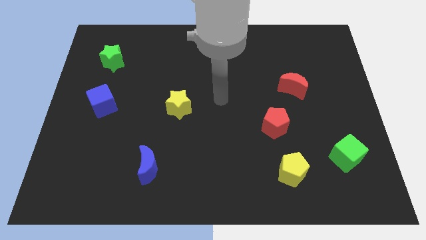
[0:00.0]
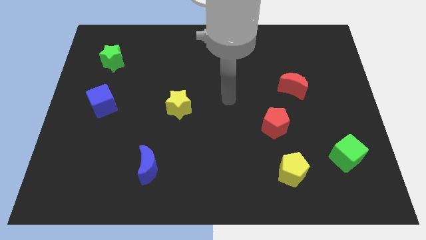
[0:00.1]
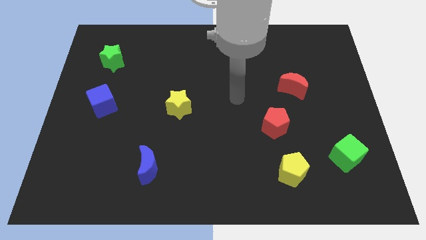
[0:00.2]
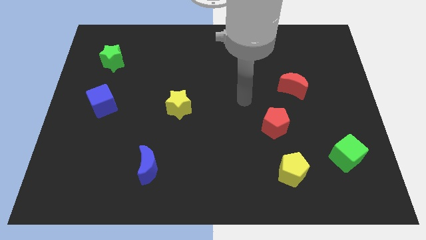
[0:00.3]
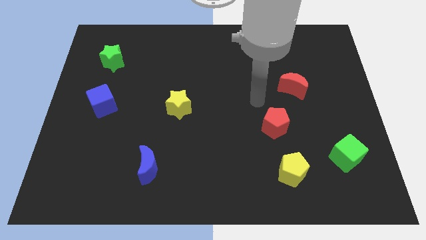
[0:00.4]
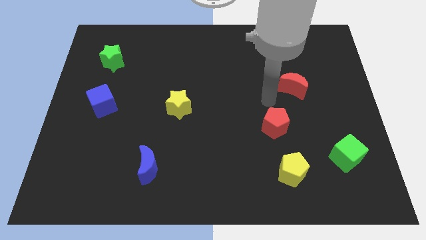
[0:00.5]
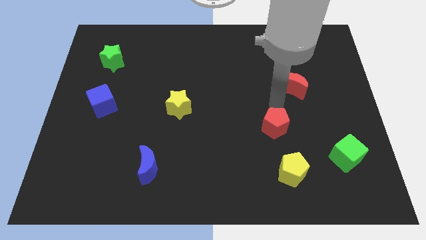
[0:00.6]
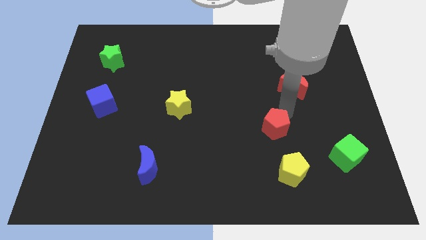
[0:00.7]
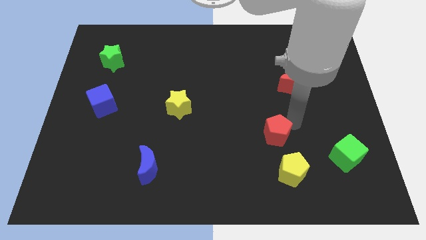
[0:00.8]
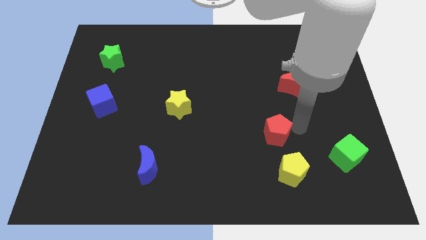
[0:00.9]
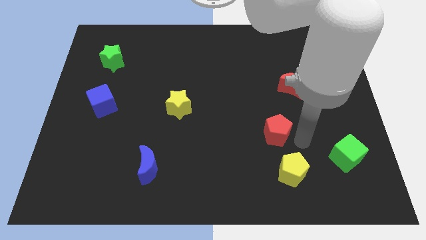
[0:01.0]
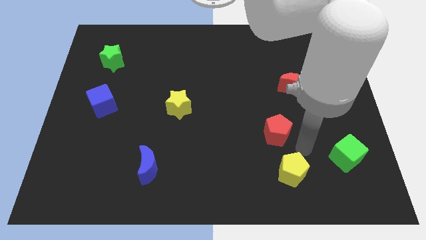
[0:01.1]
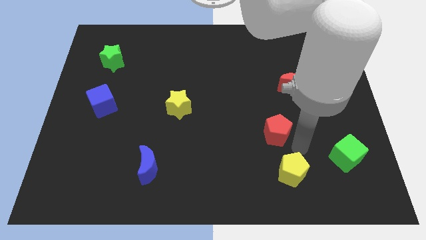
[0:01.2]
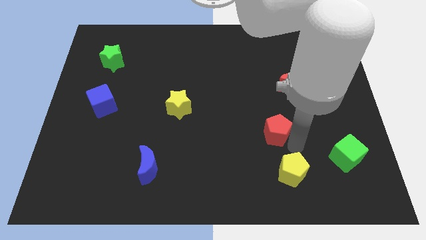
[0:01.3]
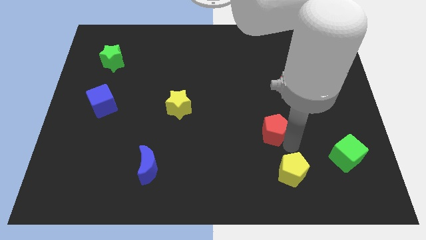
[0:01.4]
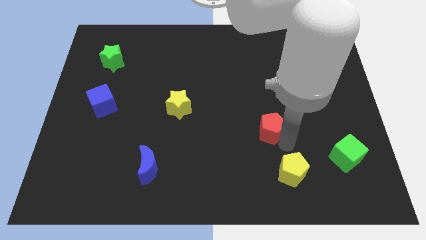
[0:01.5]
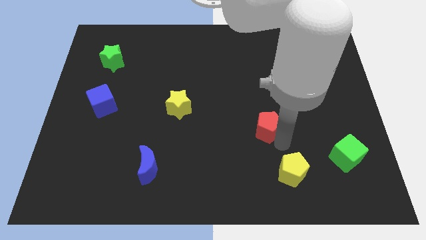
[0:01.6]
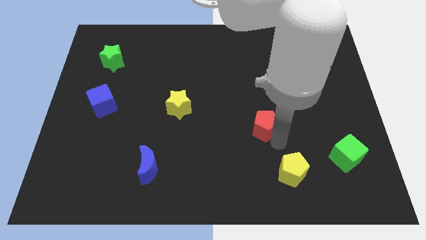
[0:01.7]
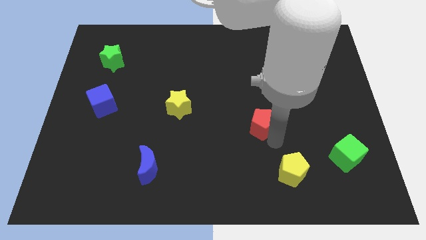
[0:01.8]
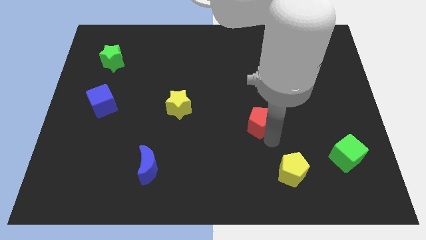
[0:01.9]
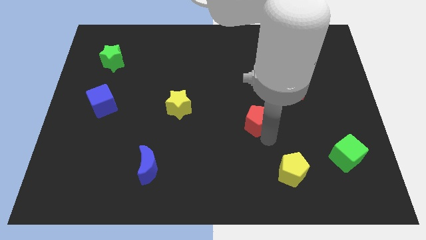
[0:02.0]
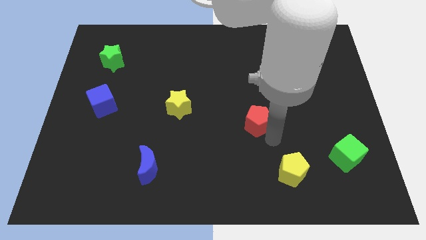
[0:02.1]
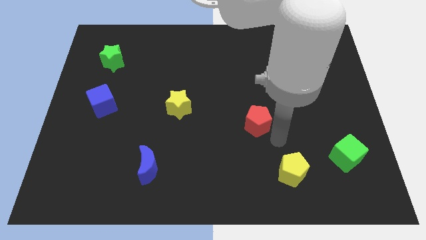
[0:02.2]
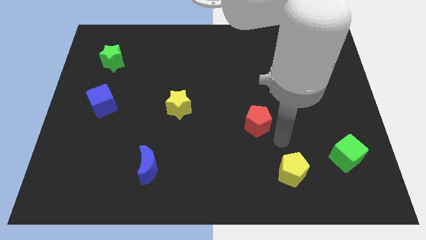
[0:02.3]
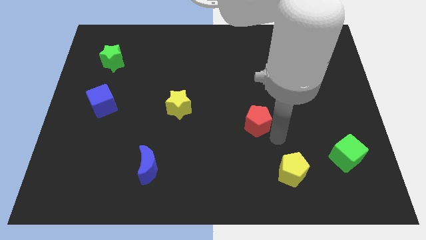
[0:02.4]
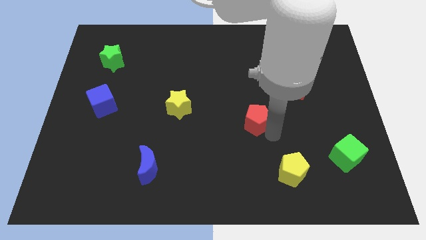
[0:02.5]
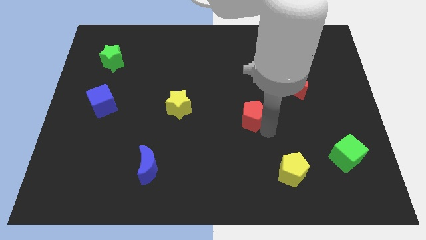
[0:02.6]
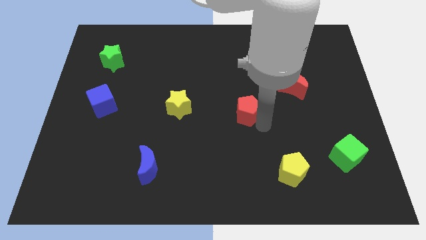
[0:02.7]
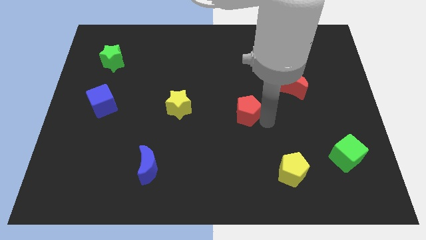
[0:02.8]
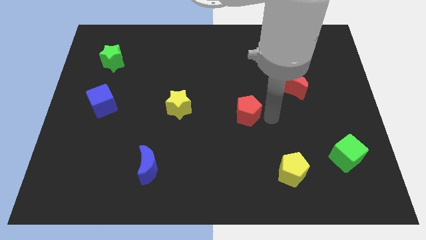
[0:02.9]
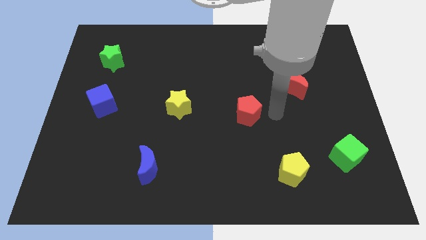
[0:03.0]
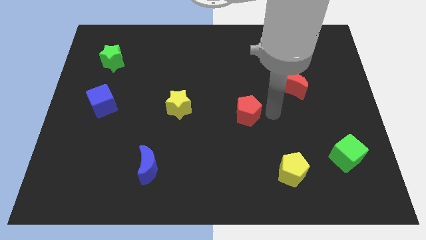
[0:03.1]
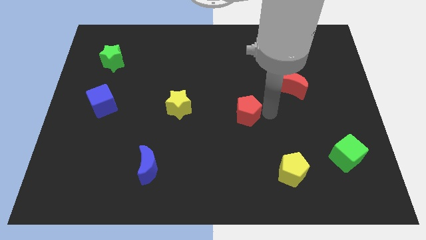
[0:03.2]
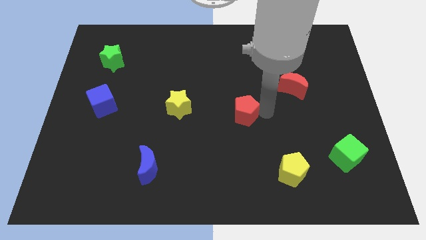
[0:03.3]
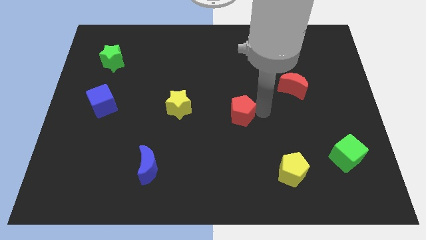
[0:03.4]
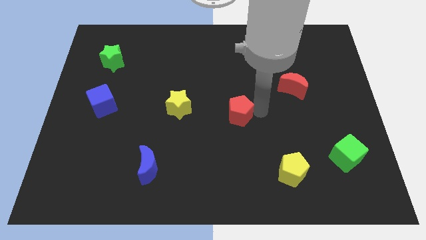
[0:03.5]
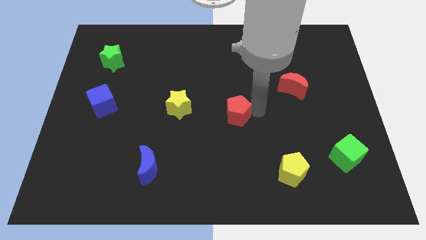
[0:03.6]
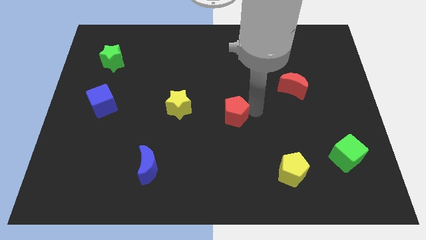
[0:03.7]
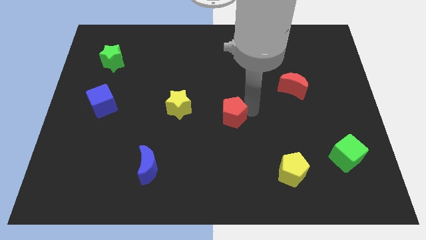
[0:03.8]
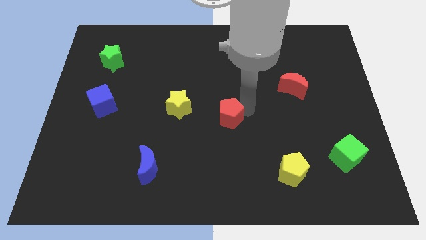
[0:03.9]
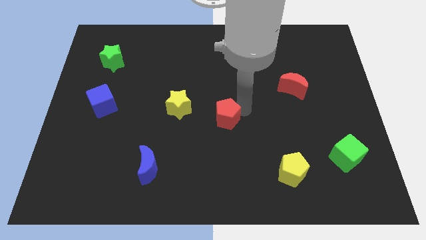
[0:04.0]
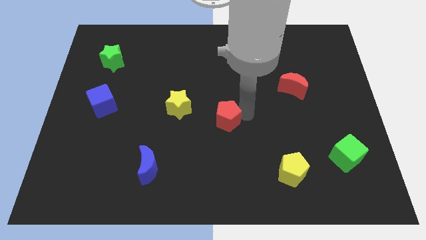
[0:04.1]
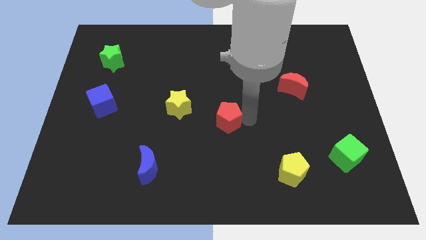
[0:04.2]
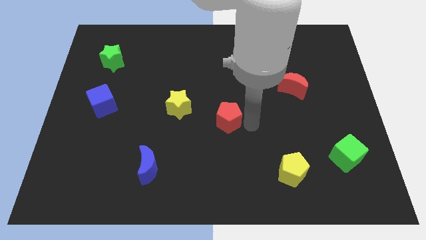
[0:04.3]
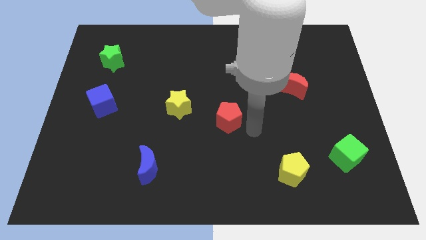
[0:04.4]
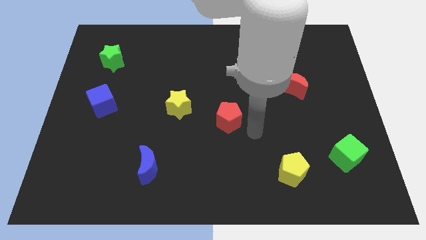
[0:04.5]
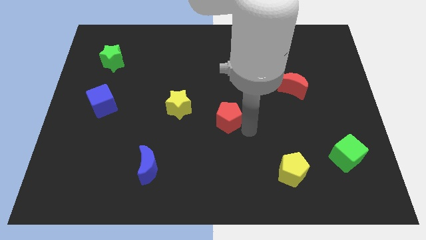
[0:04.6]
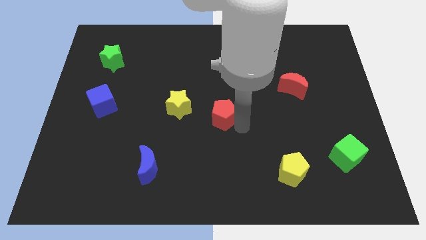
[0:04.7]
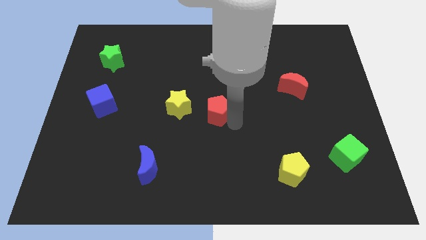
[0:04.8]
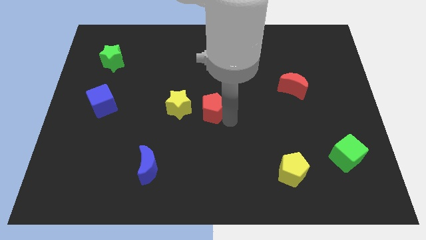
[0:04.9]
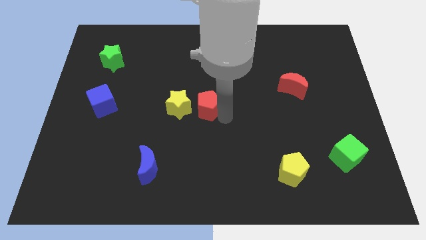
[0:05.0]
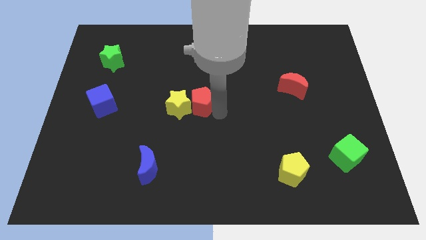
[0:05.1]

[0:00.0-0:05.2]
push the red pentagon close to the yellow star

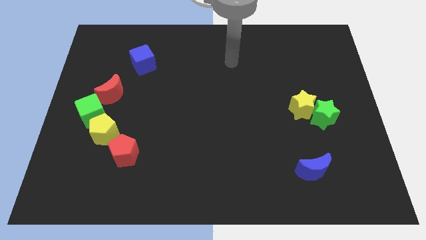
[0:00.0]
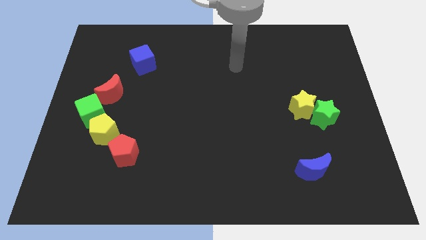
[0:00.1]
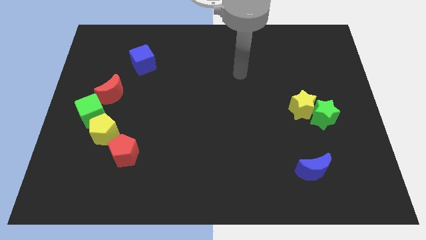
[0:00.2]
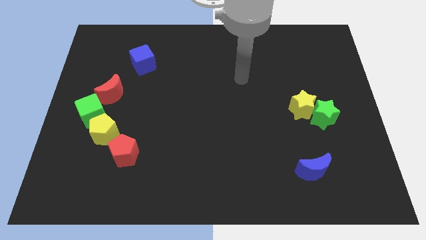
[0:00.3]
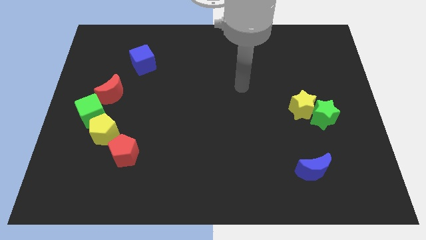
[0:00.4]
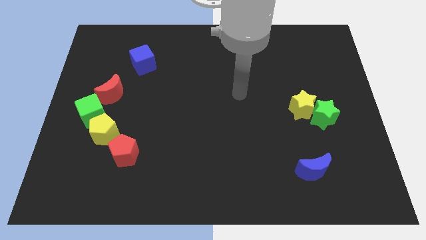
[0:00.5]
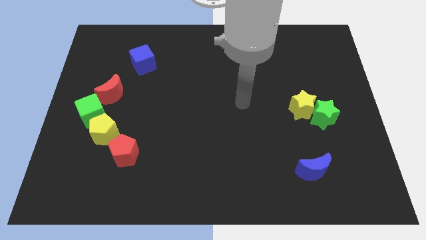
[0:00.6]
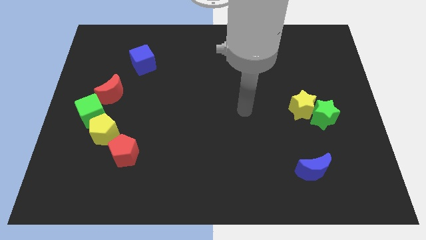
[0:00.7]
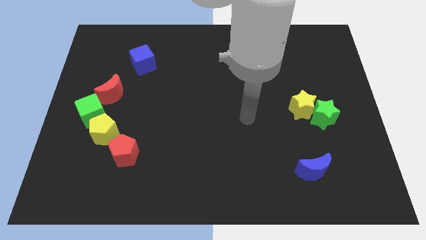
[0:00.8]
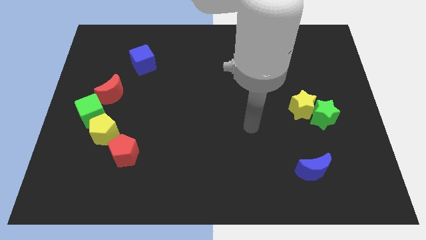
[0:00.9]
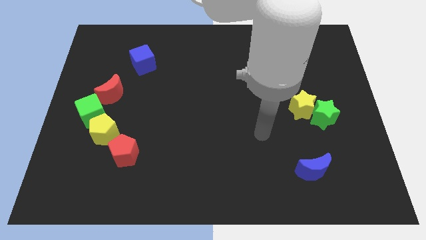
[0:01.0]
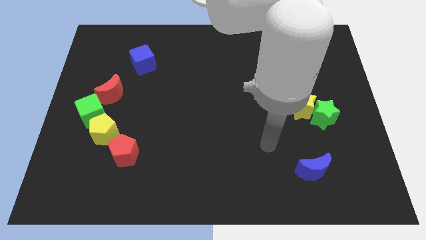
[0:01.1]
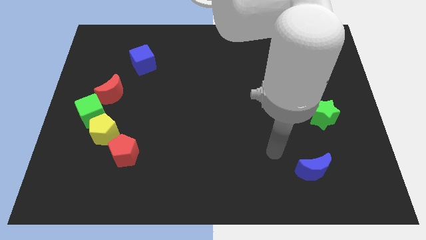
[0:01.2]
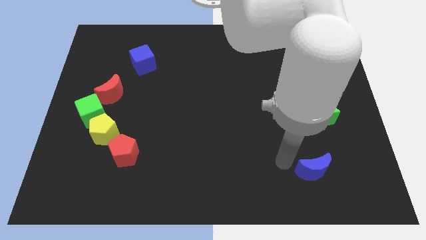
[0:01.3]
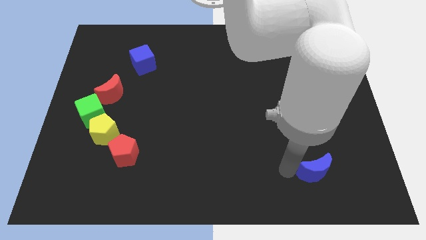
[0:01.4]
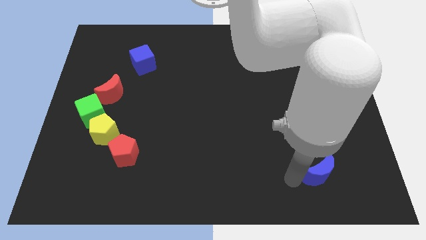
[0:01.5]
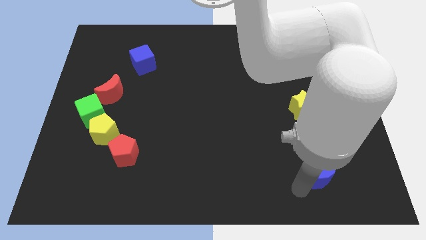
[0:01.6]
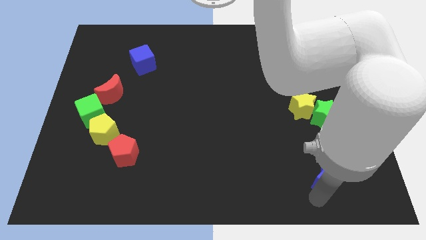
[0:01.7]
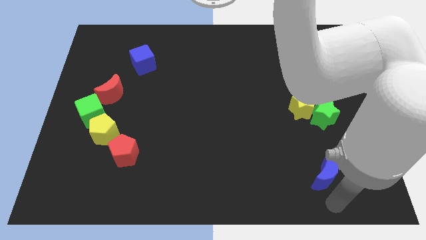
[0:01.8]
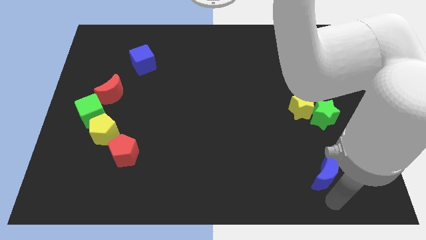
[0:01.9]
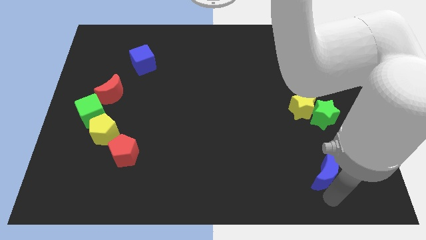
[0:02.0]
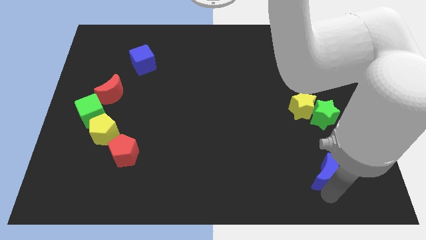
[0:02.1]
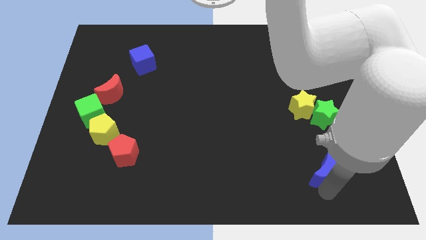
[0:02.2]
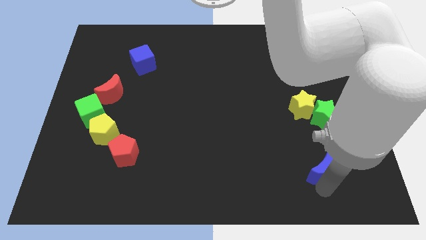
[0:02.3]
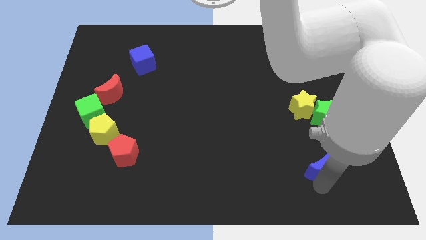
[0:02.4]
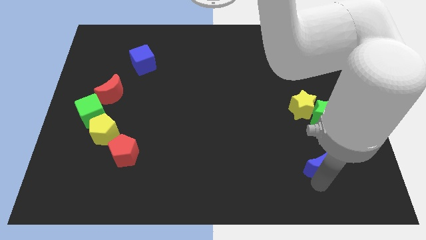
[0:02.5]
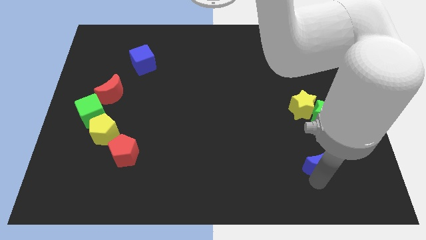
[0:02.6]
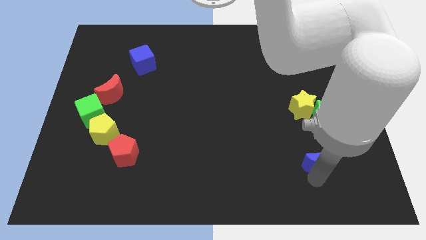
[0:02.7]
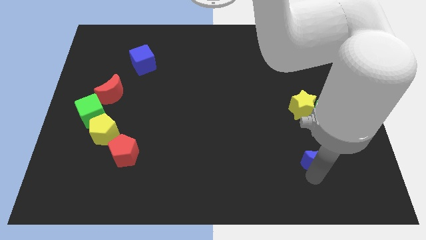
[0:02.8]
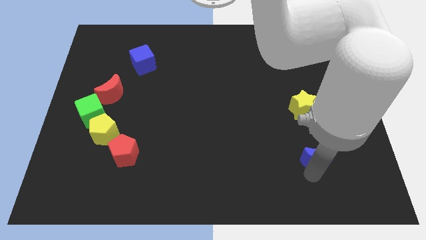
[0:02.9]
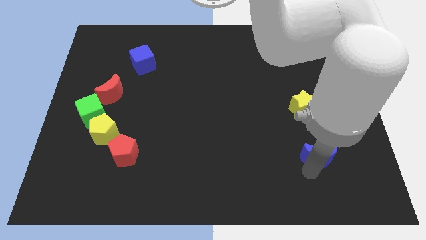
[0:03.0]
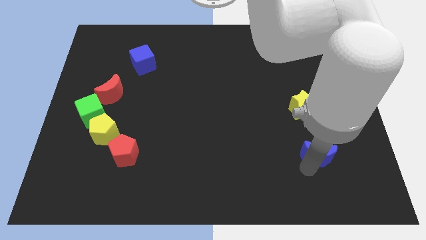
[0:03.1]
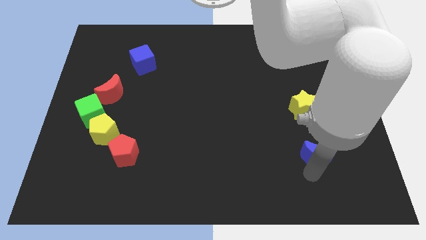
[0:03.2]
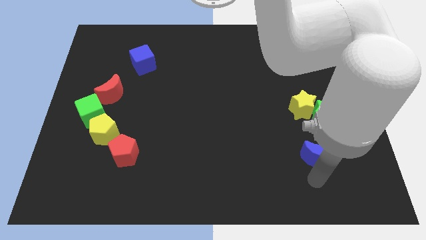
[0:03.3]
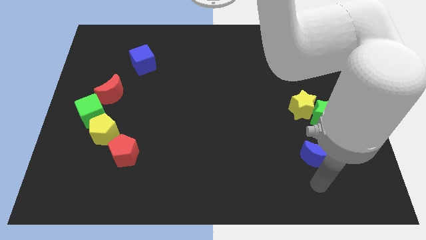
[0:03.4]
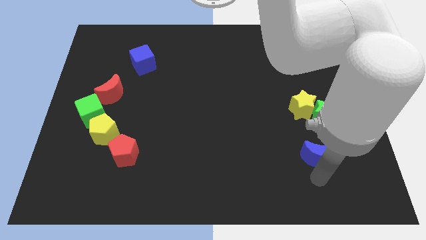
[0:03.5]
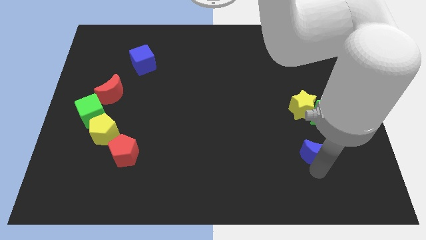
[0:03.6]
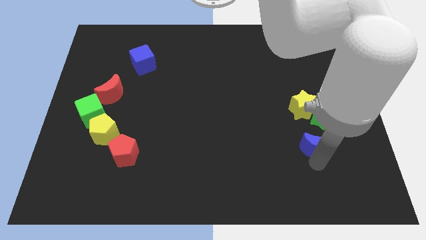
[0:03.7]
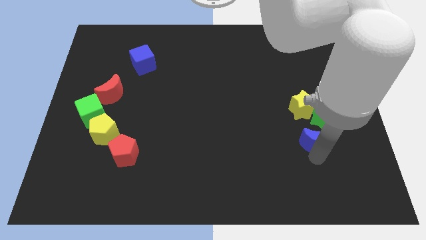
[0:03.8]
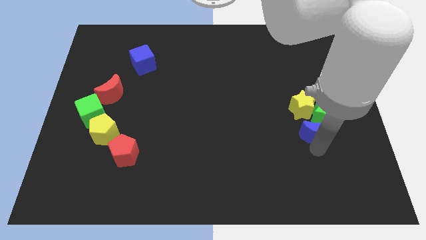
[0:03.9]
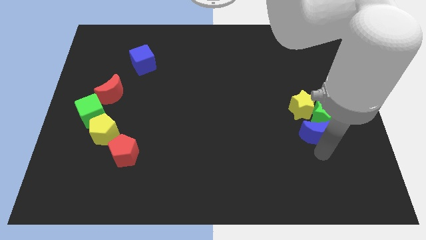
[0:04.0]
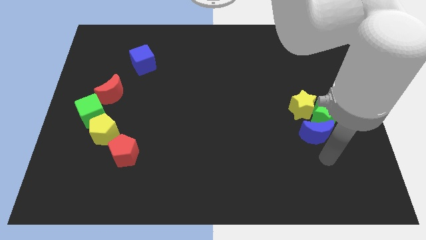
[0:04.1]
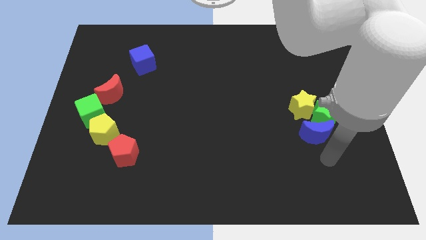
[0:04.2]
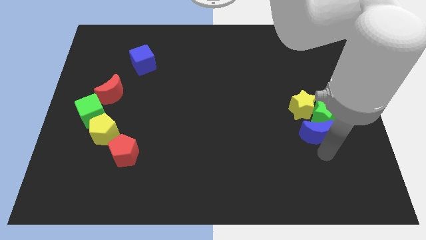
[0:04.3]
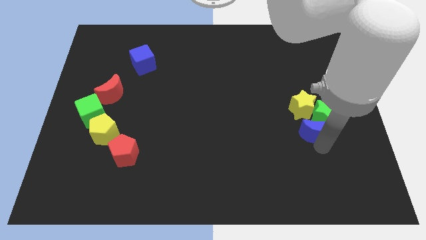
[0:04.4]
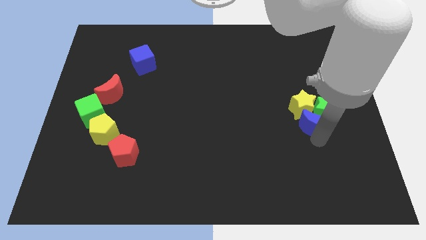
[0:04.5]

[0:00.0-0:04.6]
move the blue moon close to the yellow star
